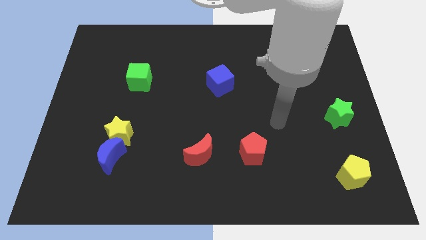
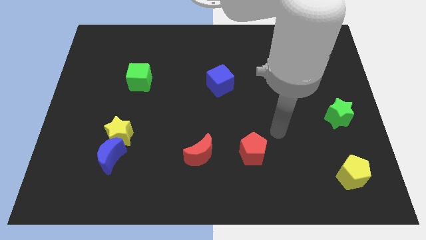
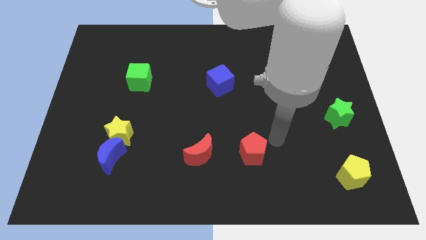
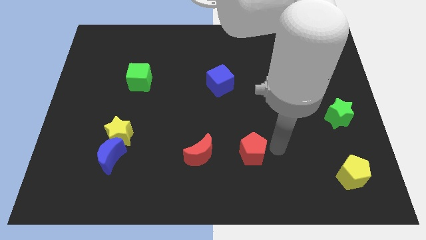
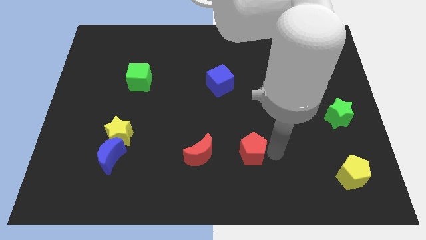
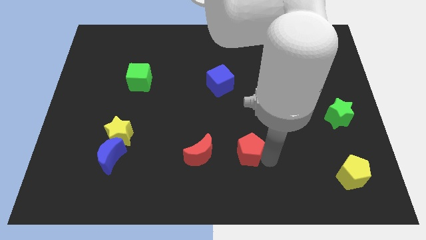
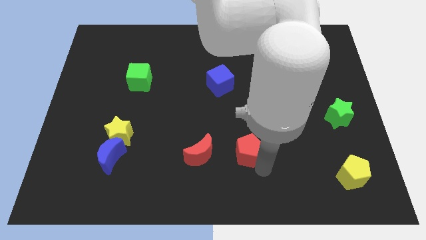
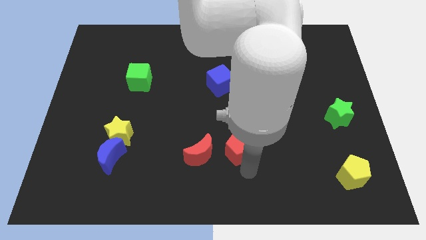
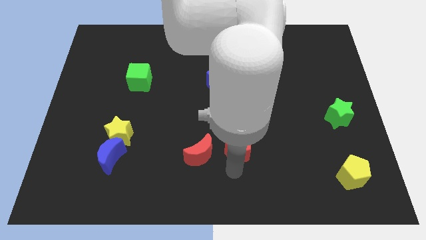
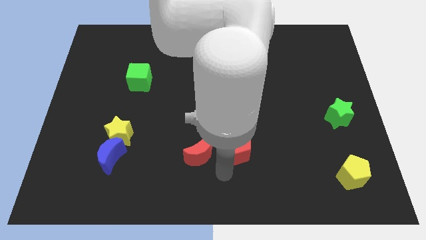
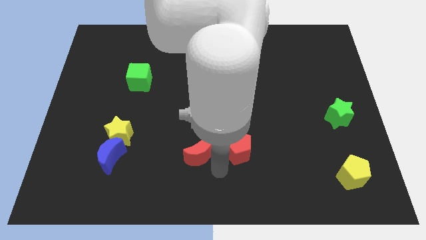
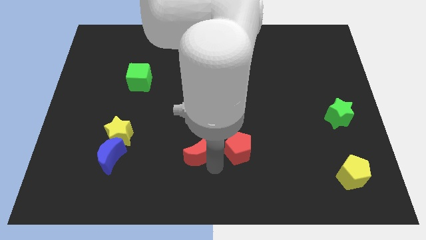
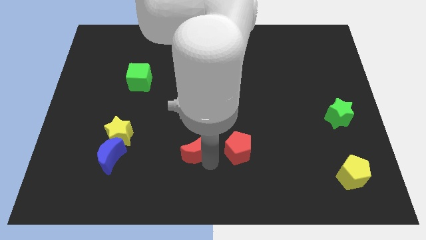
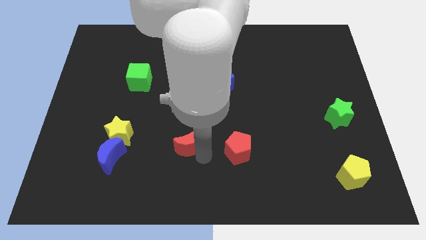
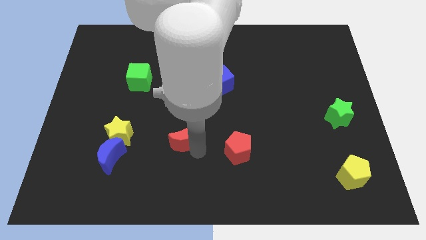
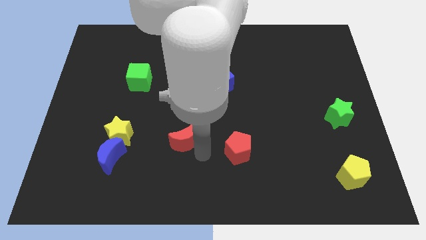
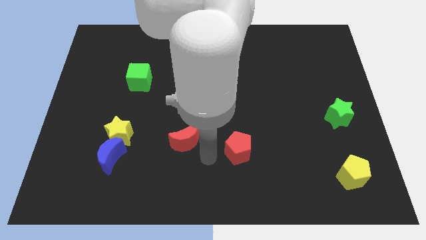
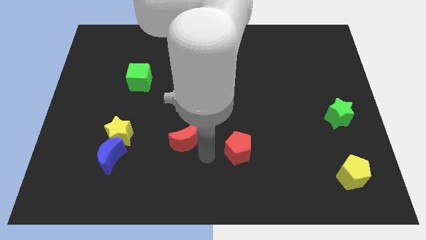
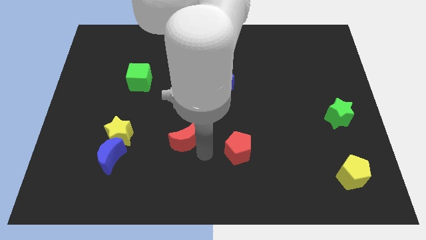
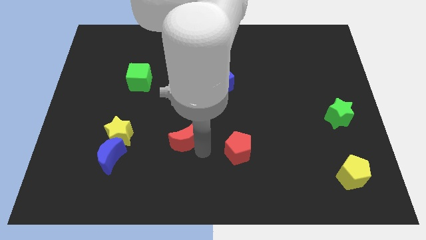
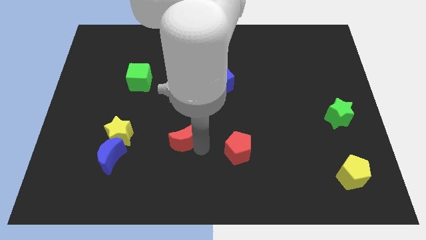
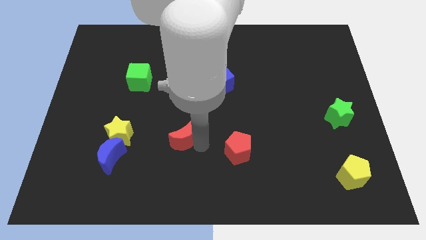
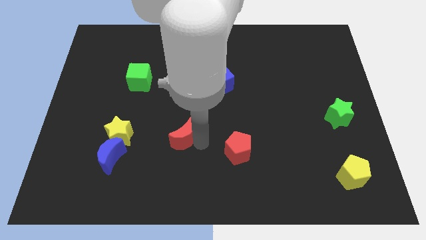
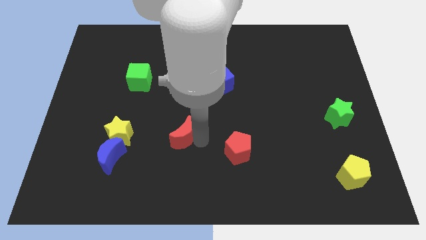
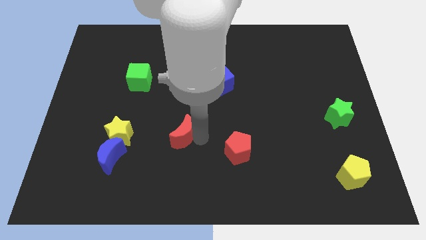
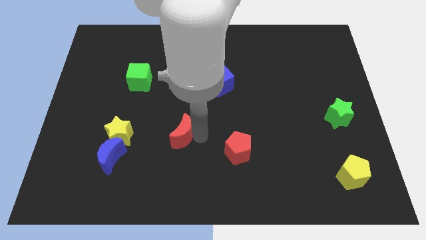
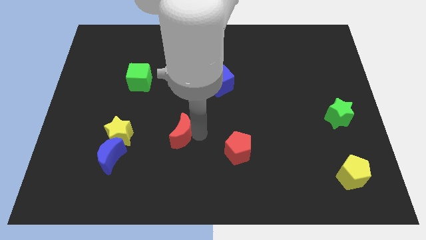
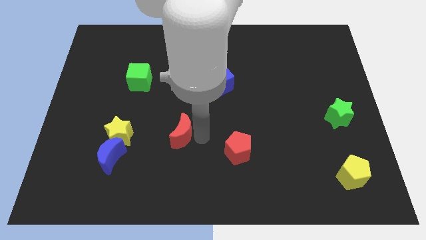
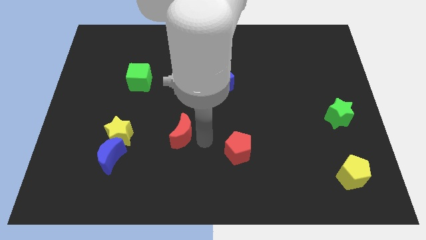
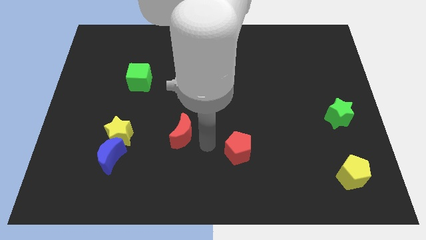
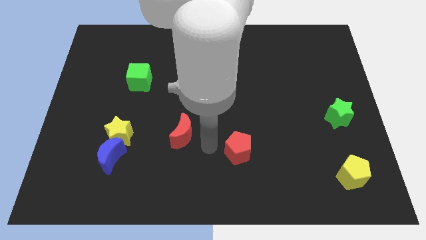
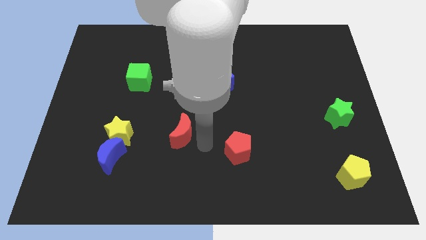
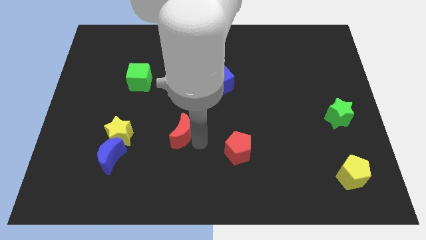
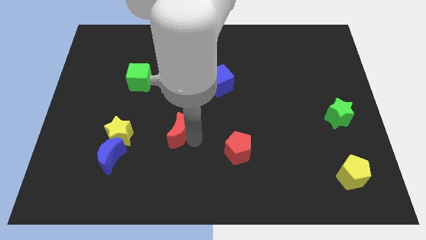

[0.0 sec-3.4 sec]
slide the red moon a bit up and to the left diagonally

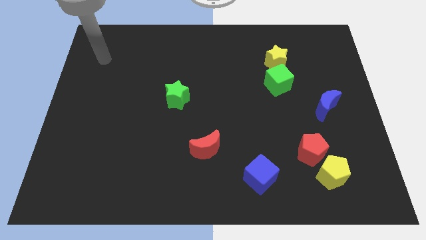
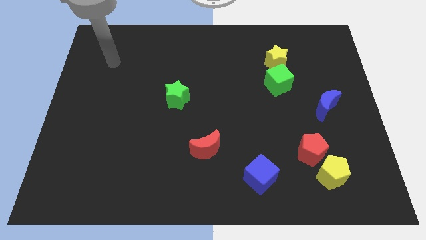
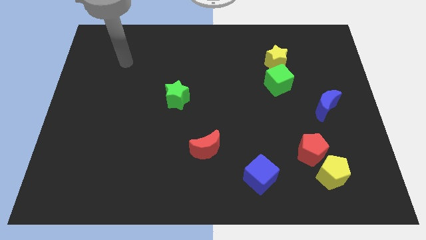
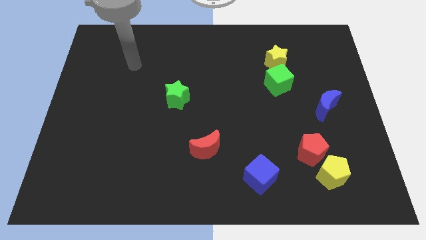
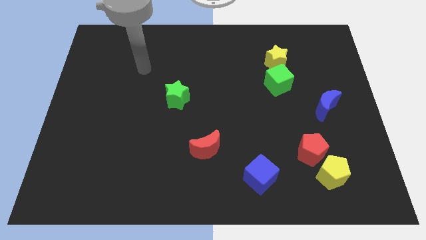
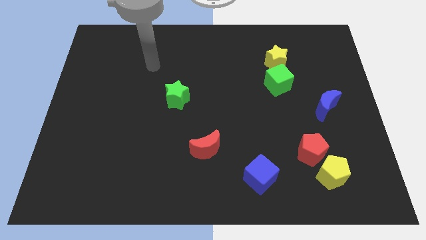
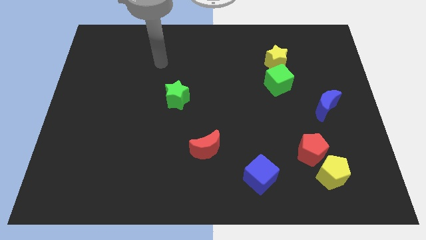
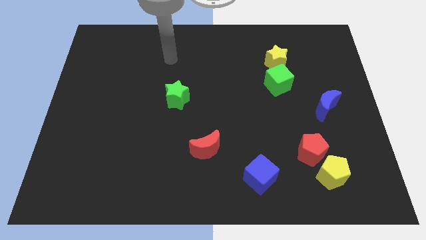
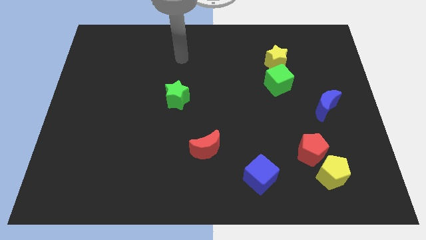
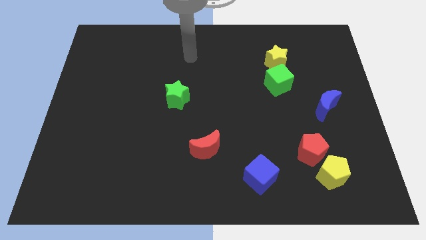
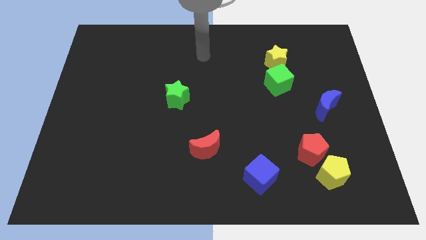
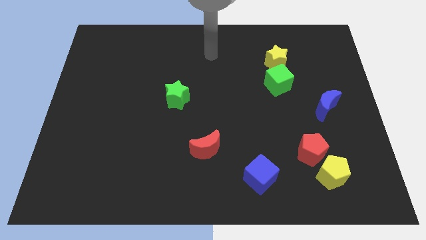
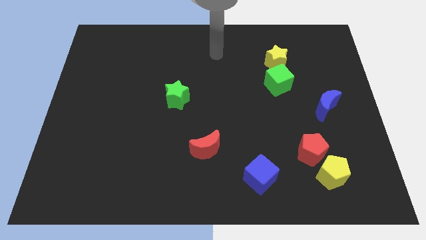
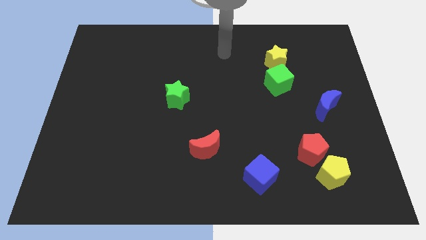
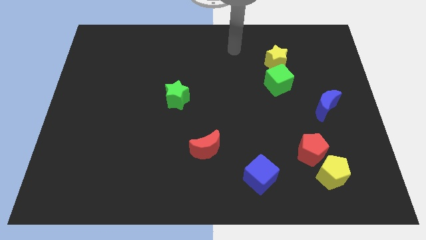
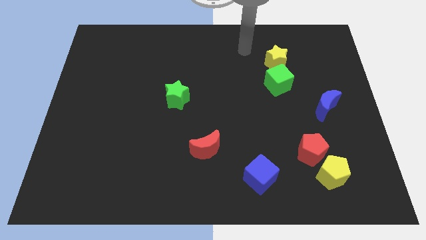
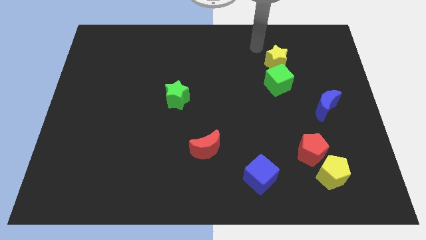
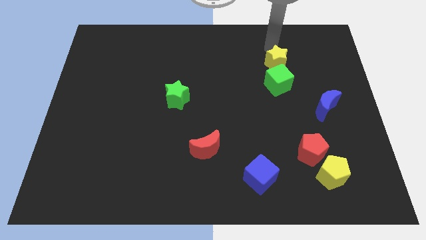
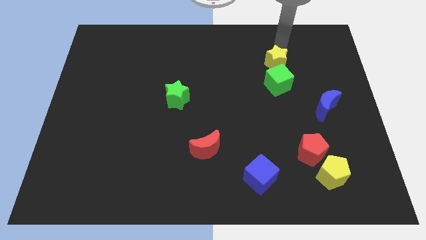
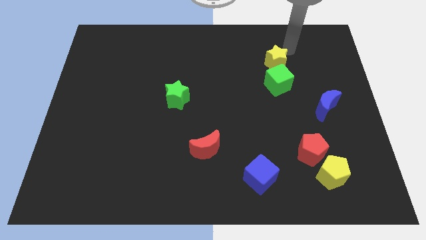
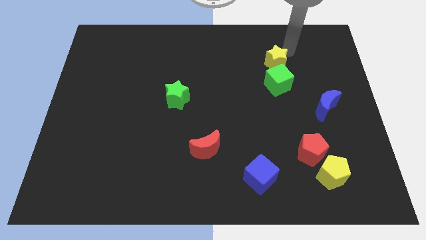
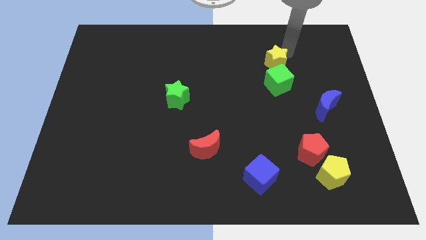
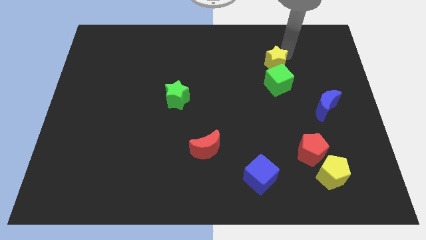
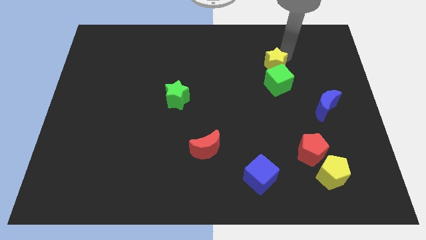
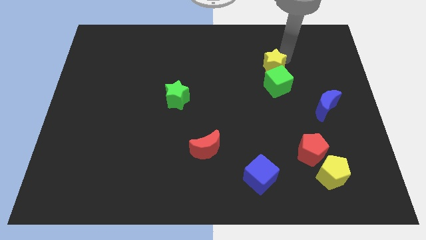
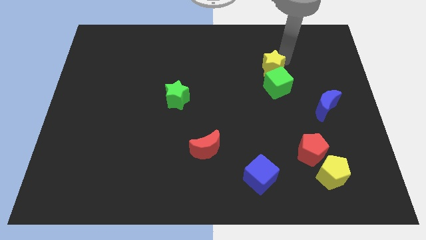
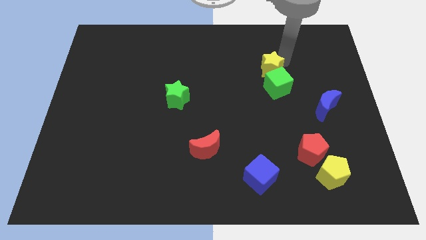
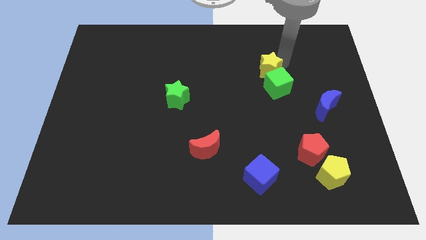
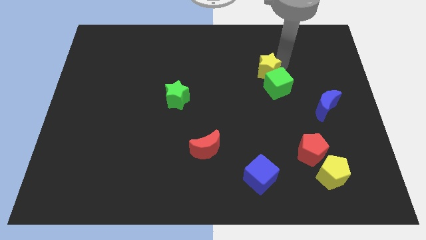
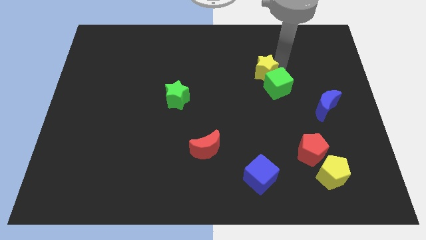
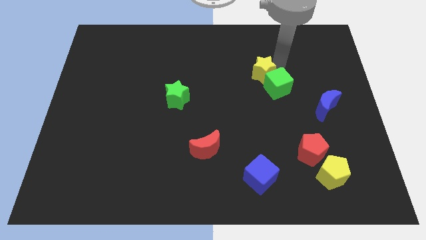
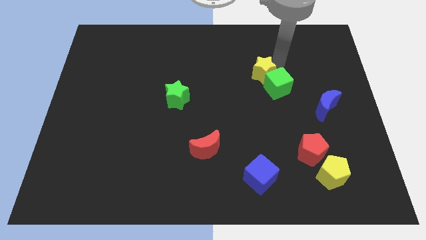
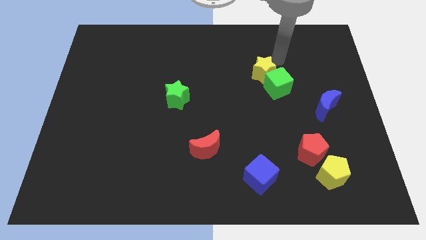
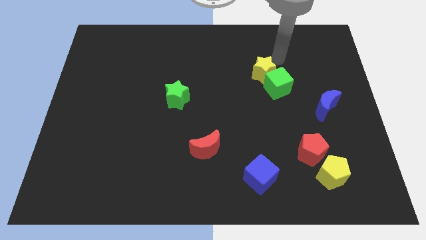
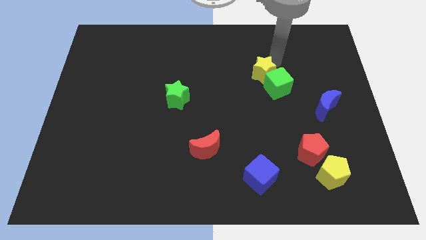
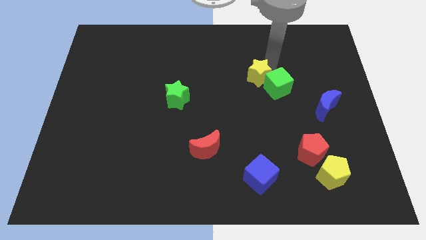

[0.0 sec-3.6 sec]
slide the yellow star down and then to the left a little

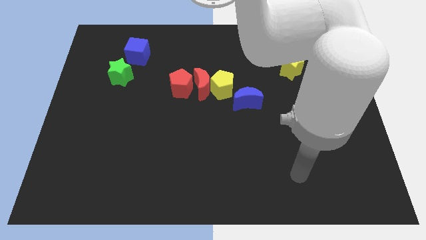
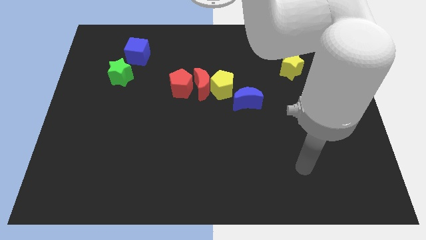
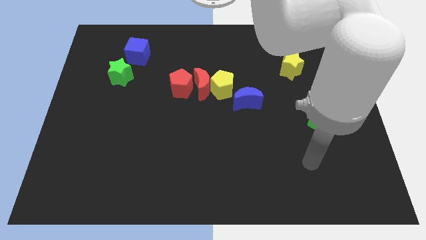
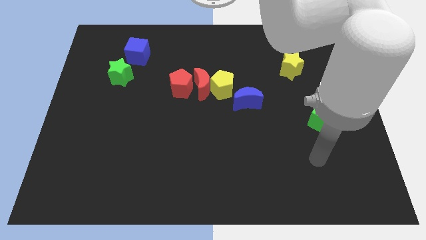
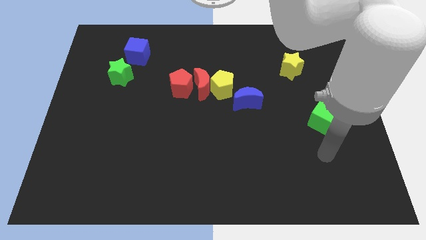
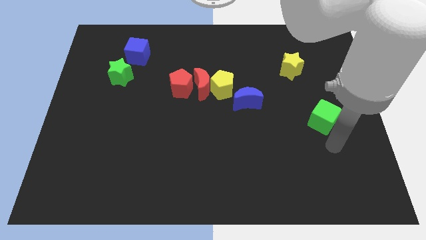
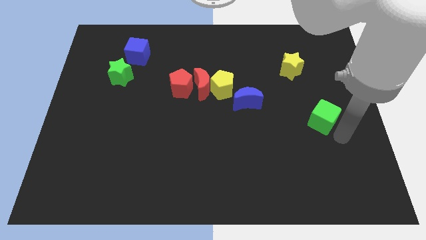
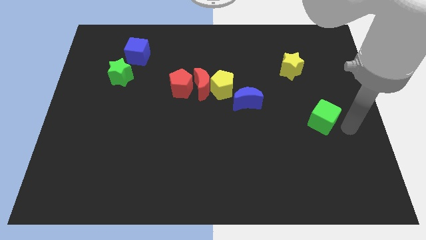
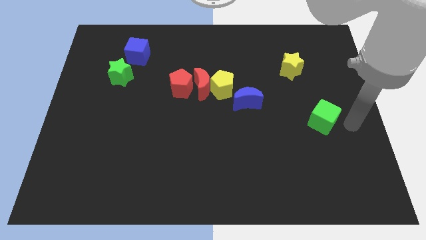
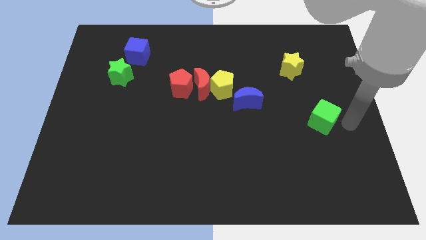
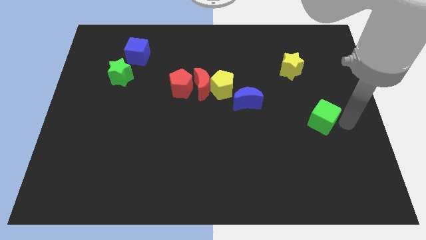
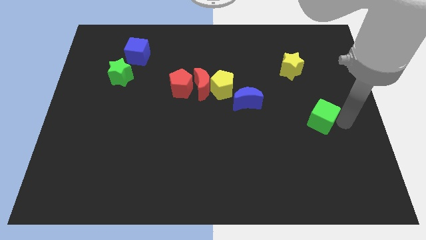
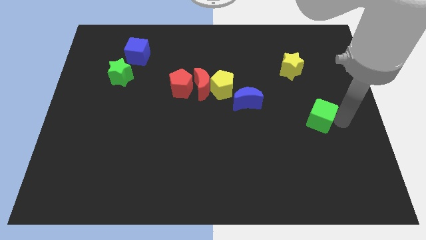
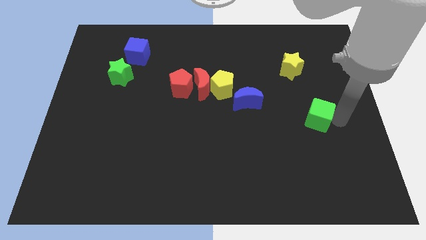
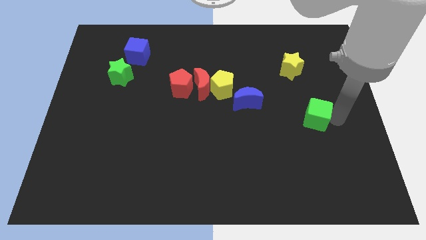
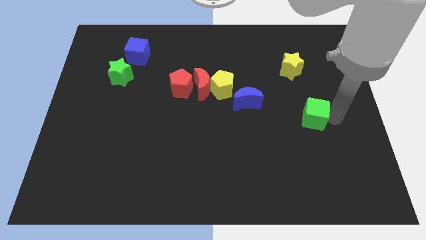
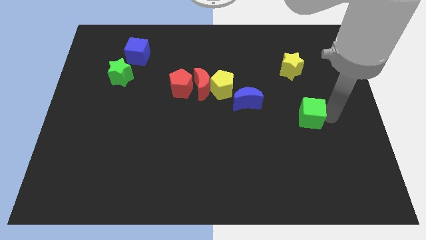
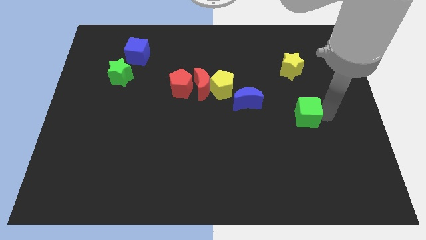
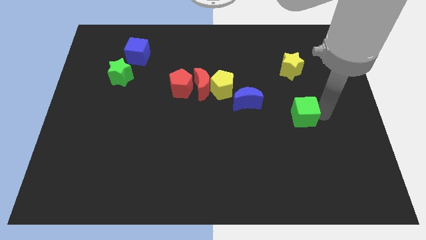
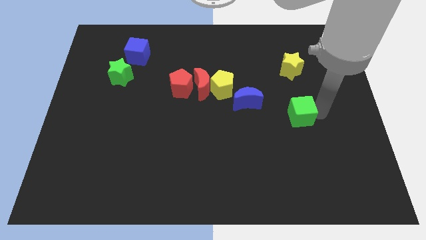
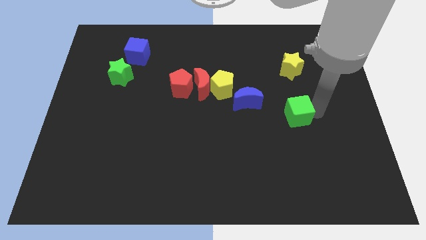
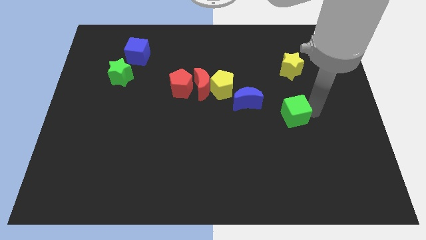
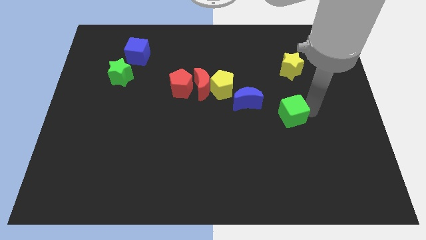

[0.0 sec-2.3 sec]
slide the green cube to the left slightly
